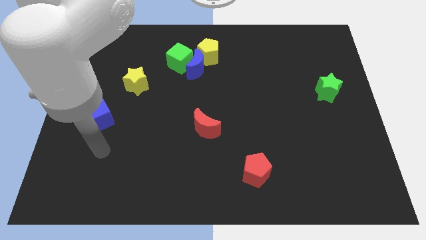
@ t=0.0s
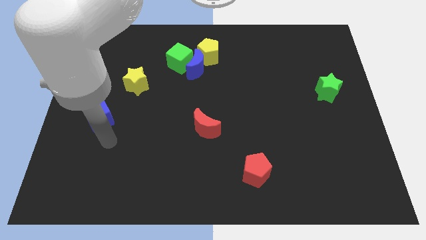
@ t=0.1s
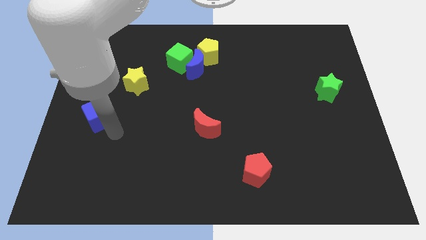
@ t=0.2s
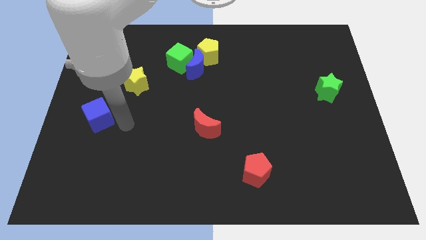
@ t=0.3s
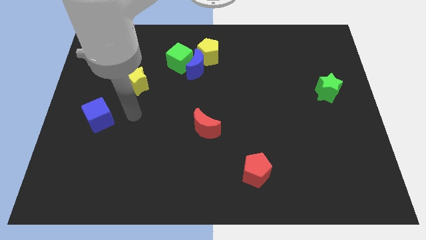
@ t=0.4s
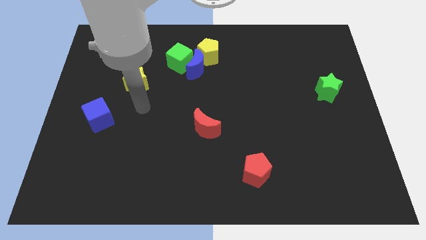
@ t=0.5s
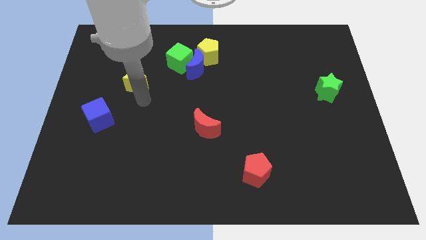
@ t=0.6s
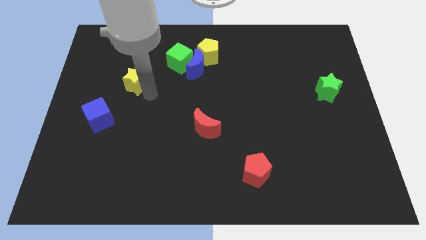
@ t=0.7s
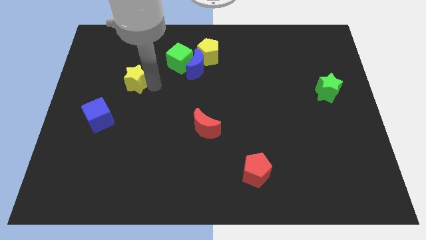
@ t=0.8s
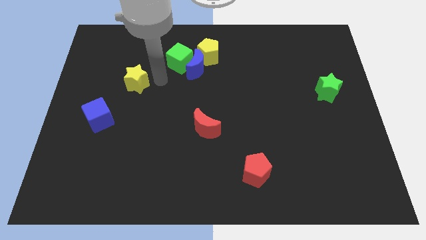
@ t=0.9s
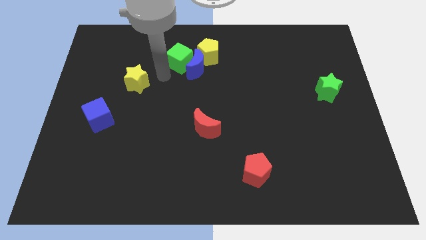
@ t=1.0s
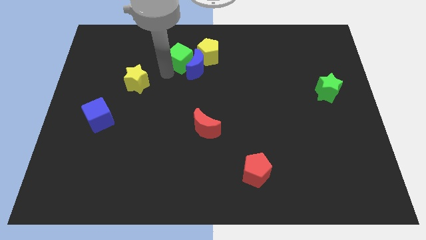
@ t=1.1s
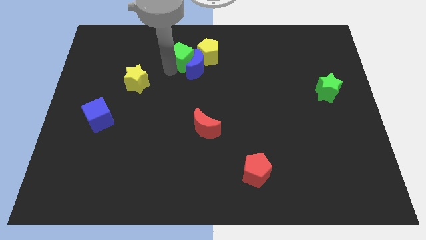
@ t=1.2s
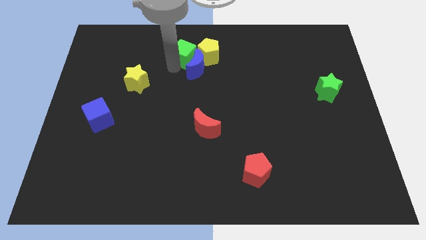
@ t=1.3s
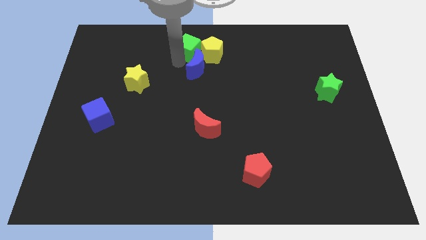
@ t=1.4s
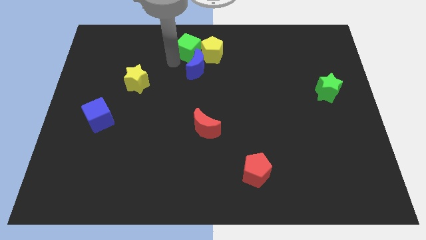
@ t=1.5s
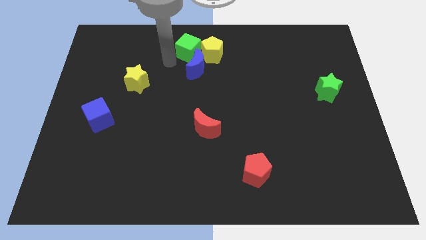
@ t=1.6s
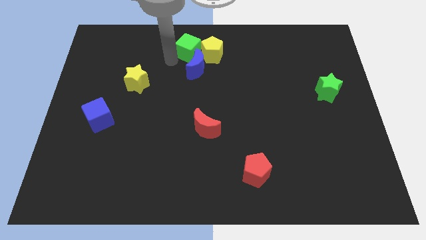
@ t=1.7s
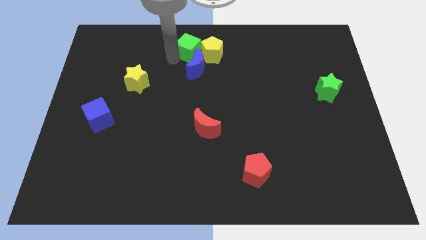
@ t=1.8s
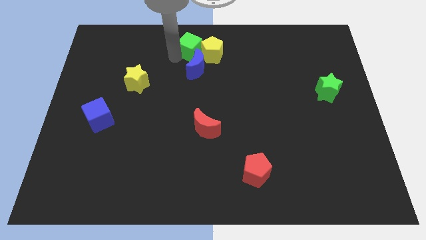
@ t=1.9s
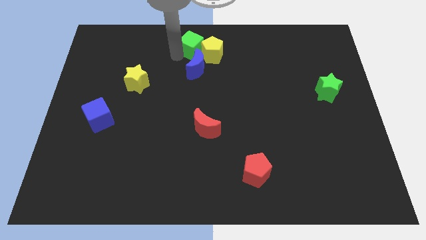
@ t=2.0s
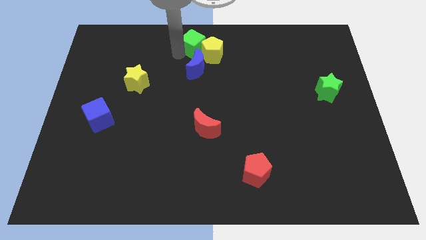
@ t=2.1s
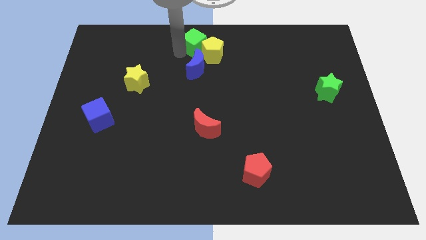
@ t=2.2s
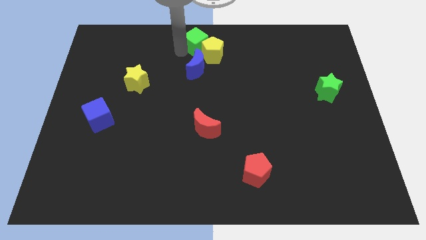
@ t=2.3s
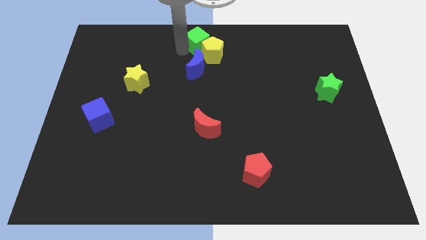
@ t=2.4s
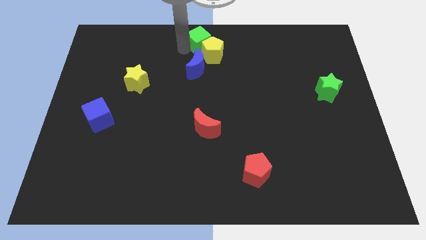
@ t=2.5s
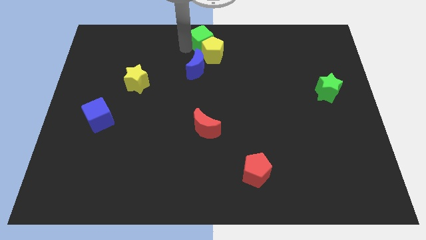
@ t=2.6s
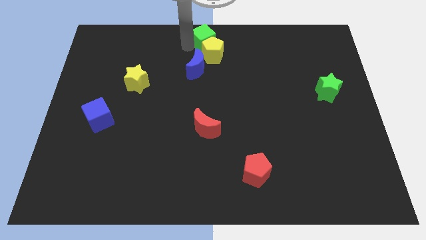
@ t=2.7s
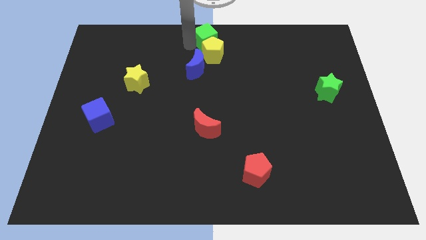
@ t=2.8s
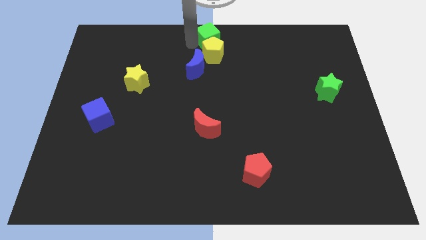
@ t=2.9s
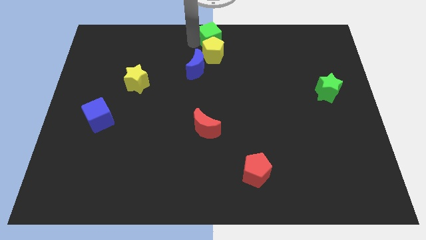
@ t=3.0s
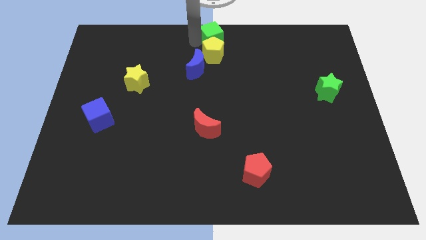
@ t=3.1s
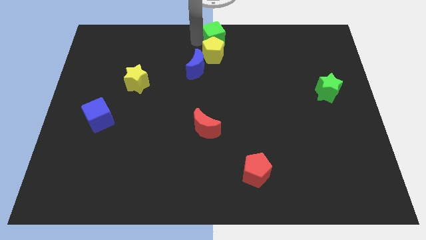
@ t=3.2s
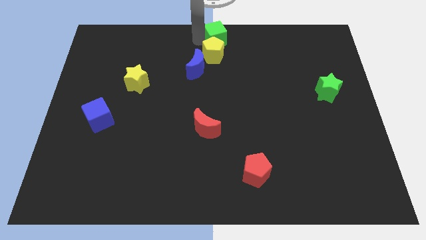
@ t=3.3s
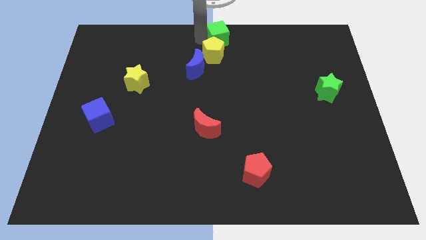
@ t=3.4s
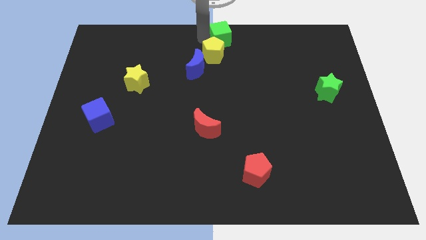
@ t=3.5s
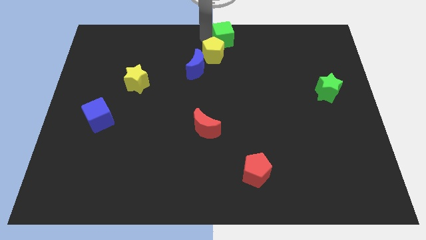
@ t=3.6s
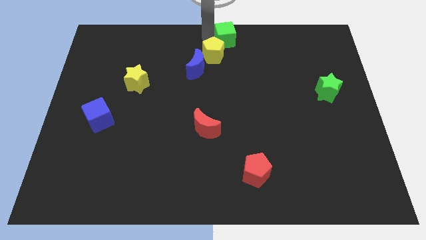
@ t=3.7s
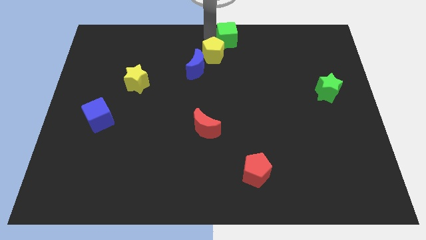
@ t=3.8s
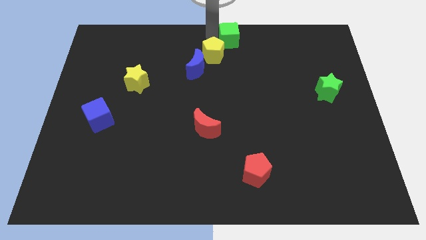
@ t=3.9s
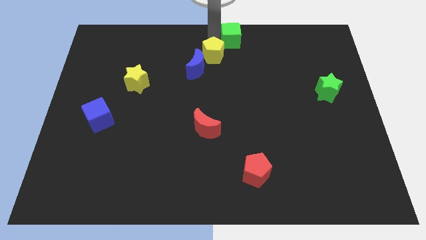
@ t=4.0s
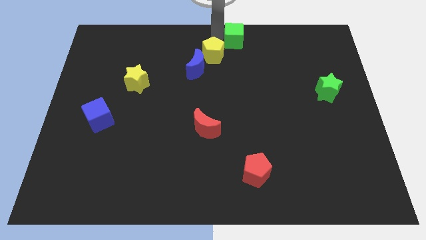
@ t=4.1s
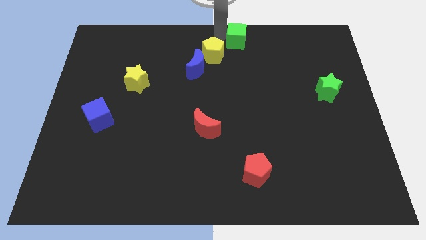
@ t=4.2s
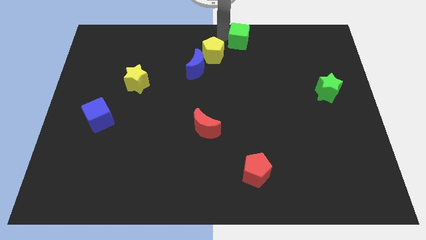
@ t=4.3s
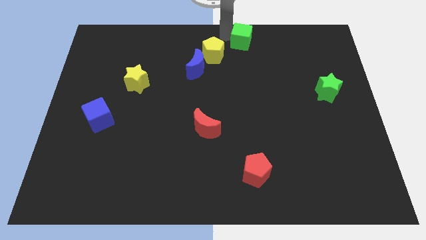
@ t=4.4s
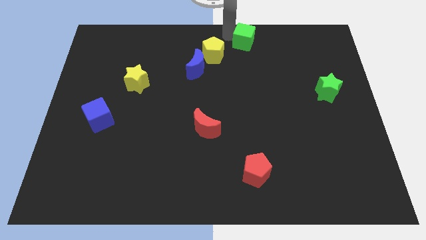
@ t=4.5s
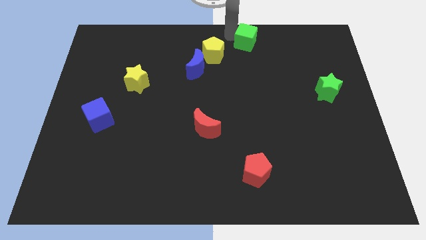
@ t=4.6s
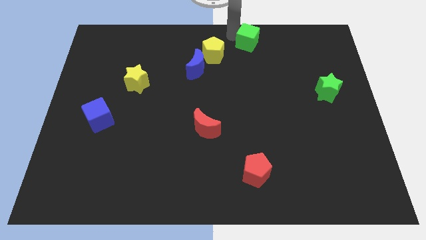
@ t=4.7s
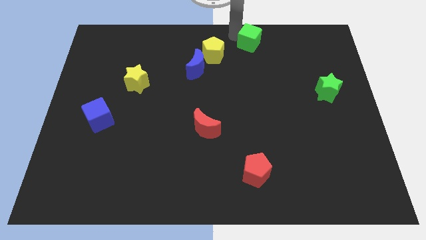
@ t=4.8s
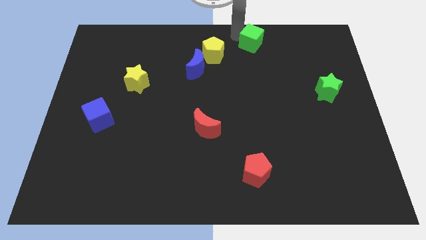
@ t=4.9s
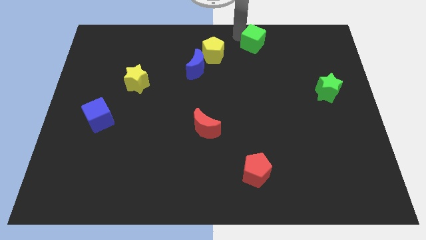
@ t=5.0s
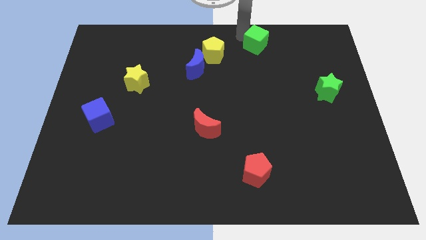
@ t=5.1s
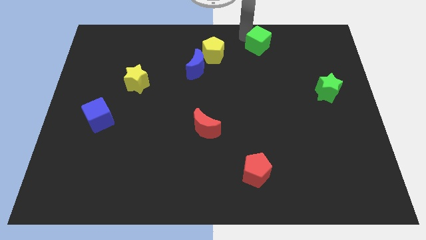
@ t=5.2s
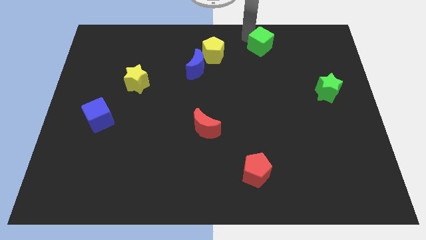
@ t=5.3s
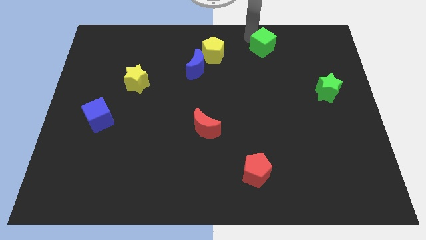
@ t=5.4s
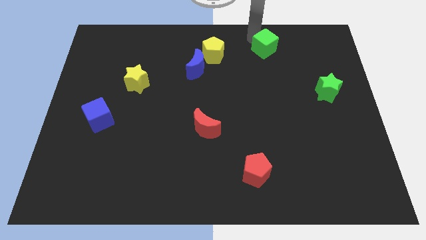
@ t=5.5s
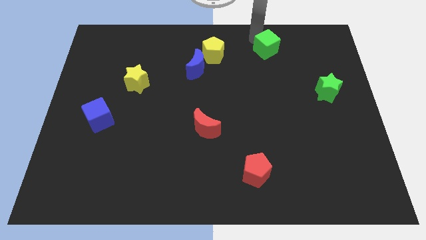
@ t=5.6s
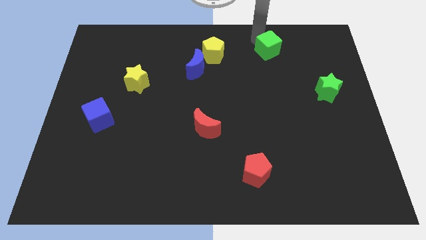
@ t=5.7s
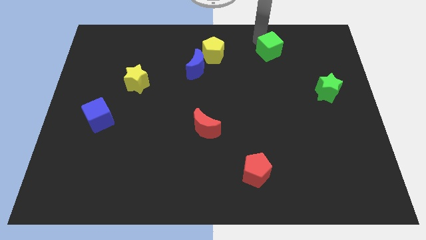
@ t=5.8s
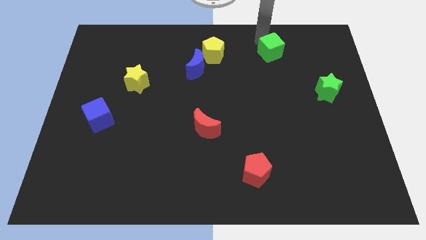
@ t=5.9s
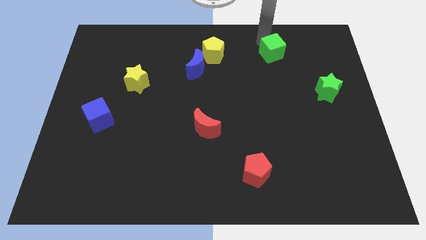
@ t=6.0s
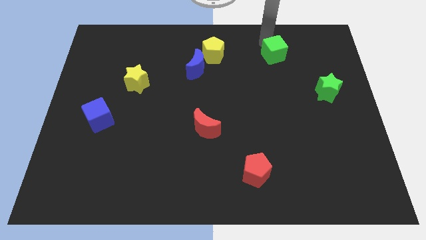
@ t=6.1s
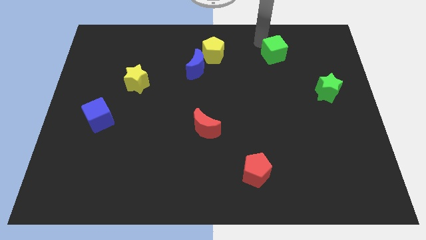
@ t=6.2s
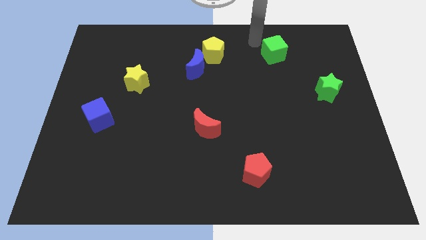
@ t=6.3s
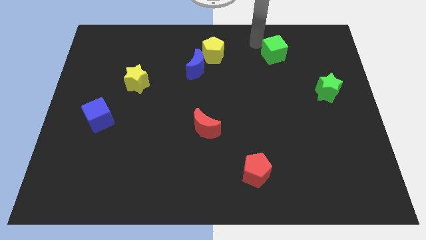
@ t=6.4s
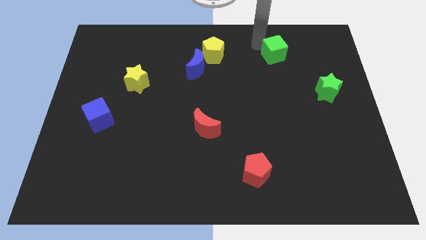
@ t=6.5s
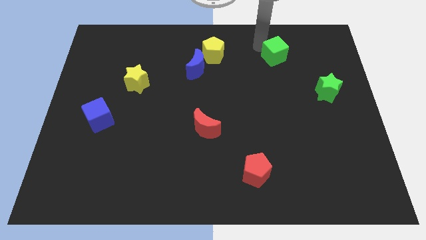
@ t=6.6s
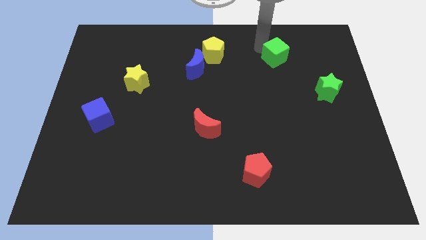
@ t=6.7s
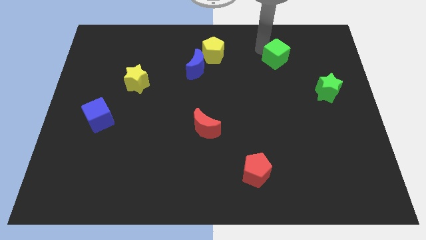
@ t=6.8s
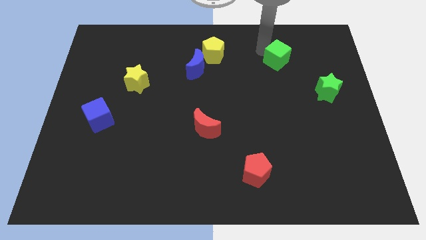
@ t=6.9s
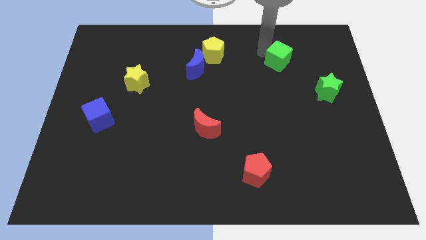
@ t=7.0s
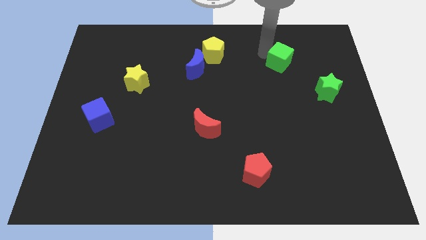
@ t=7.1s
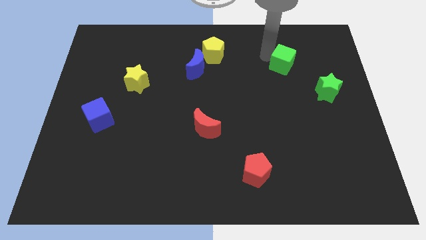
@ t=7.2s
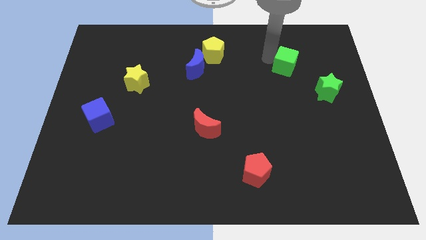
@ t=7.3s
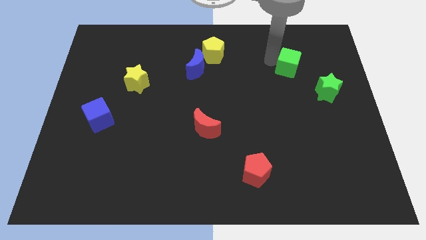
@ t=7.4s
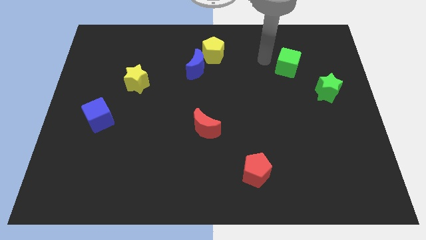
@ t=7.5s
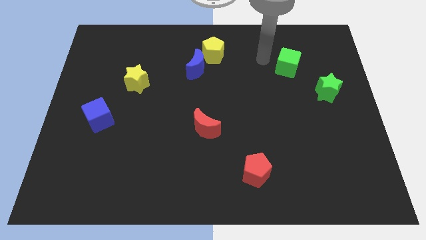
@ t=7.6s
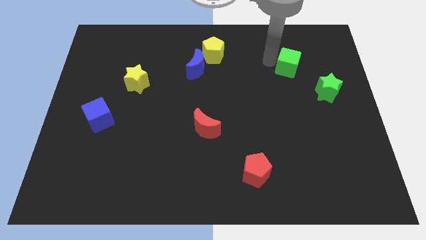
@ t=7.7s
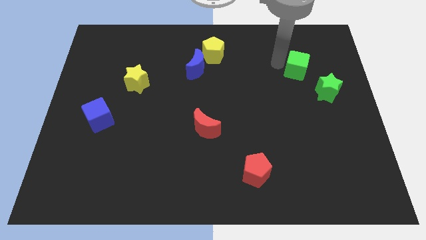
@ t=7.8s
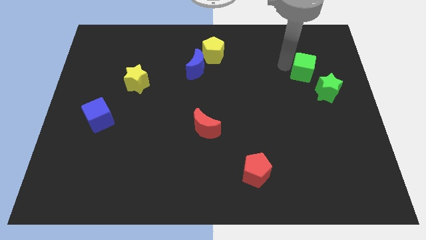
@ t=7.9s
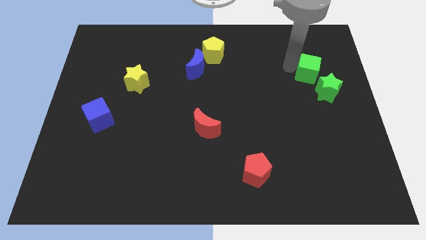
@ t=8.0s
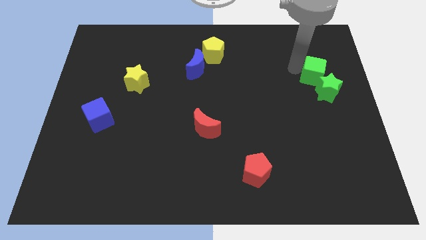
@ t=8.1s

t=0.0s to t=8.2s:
put the green cube close to the green star
